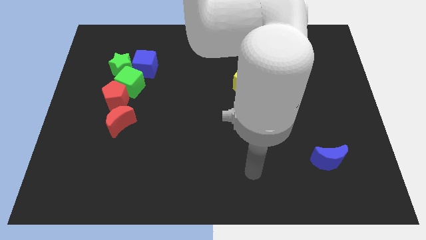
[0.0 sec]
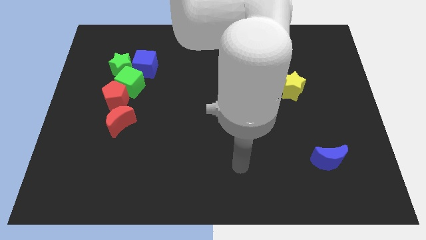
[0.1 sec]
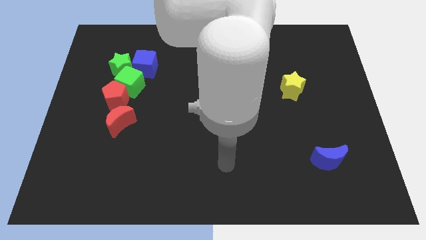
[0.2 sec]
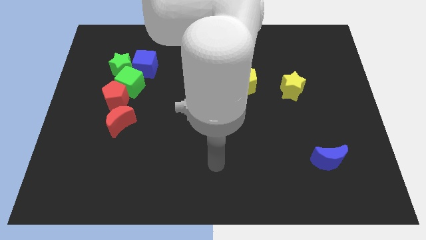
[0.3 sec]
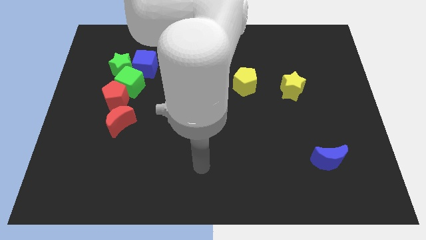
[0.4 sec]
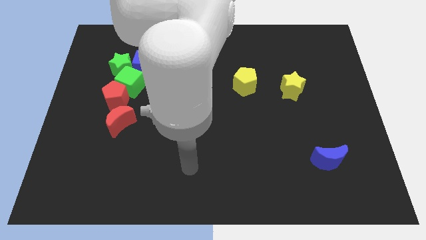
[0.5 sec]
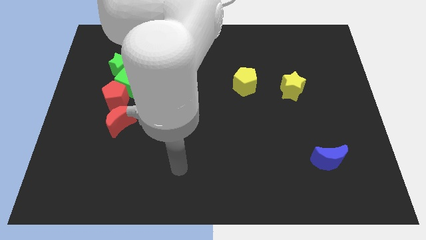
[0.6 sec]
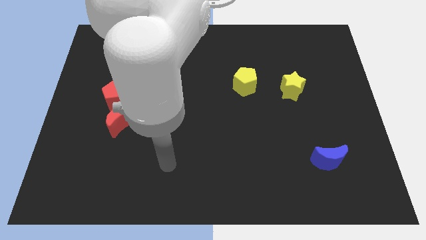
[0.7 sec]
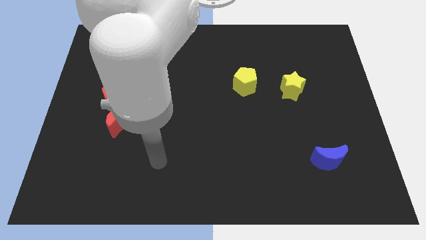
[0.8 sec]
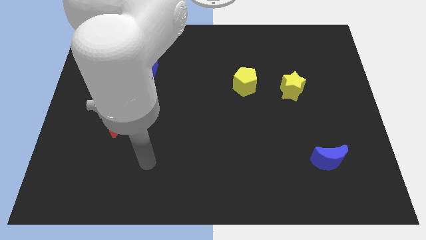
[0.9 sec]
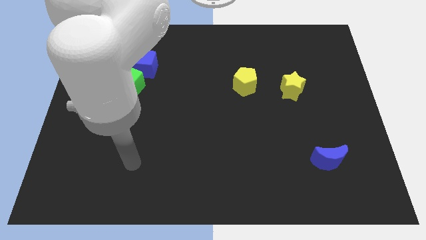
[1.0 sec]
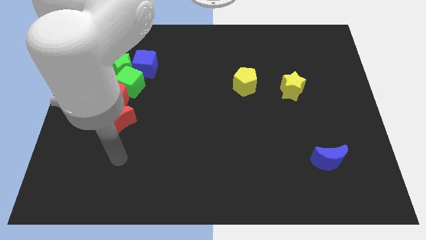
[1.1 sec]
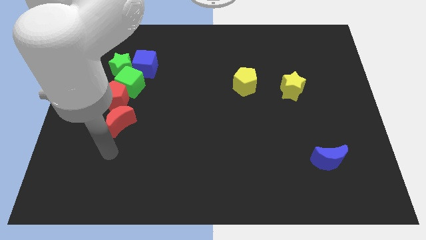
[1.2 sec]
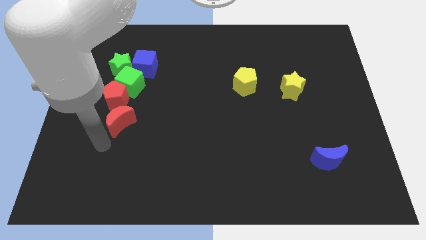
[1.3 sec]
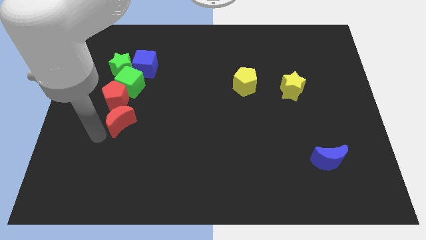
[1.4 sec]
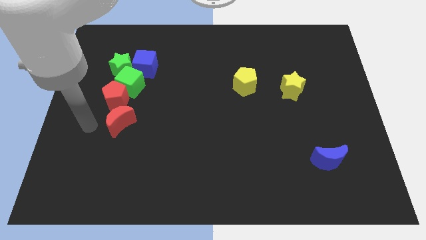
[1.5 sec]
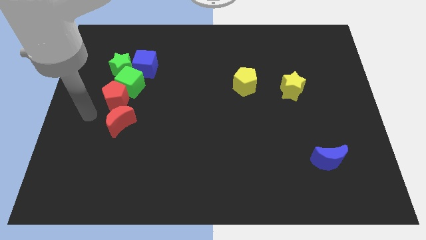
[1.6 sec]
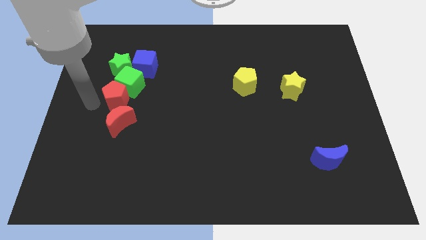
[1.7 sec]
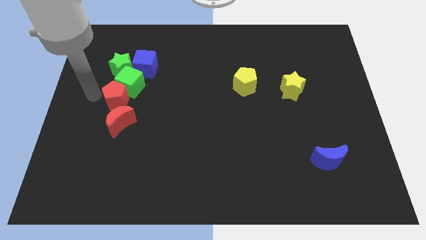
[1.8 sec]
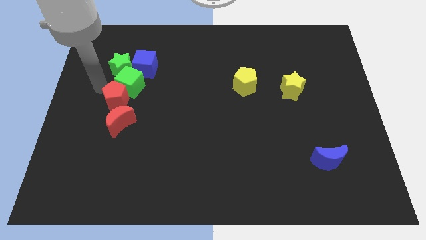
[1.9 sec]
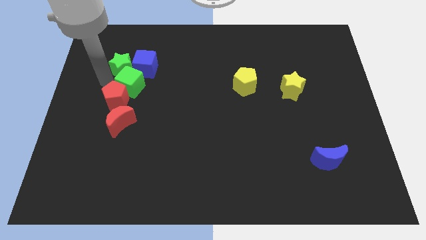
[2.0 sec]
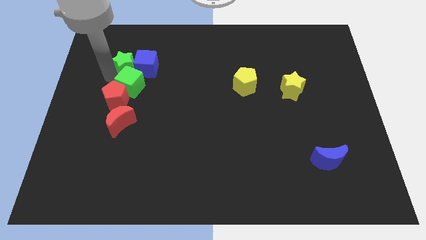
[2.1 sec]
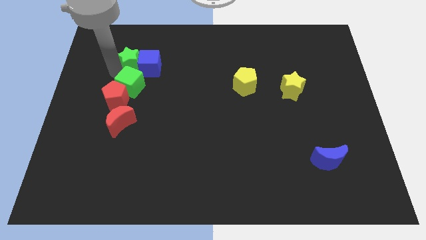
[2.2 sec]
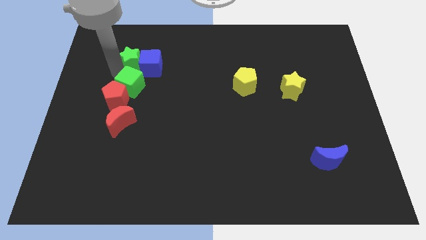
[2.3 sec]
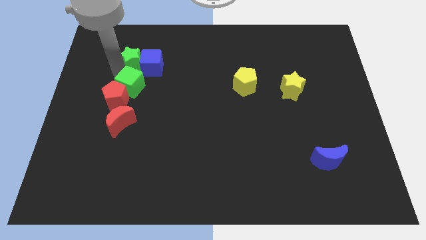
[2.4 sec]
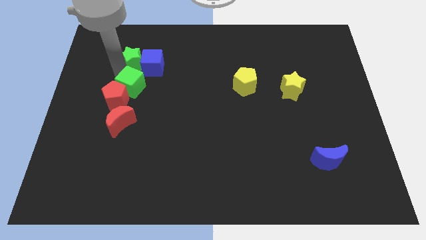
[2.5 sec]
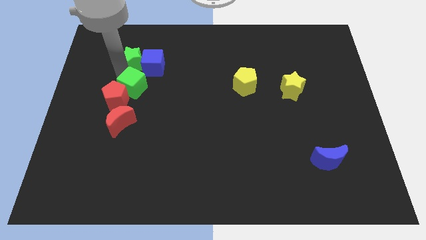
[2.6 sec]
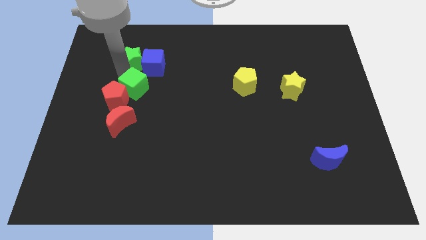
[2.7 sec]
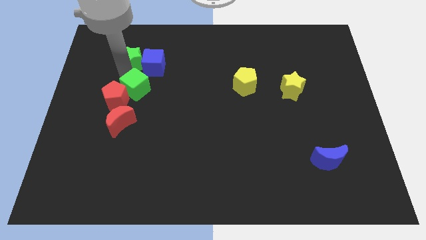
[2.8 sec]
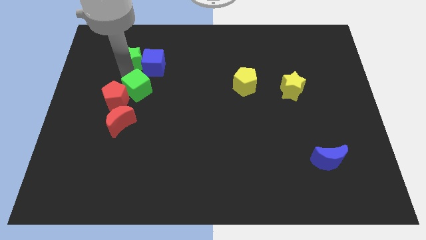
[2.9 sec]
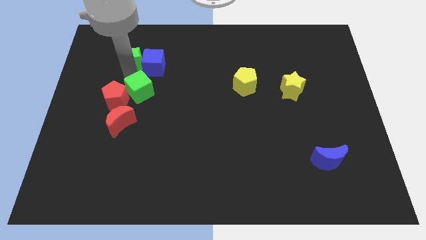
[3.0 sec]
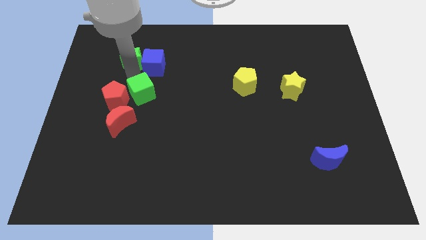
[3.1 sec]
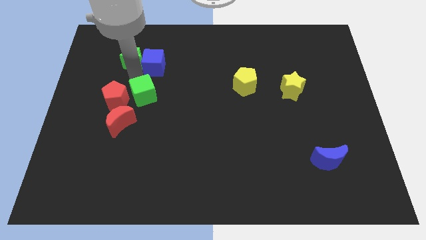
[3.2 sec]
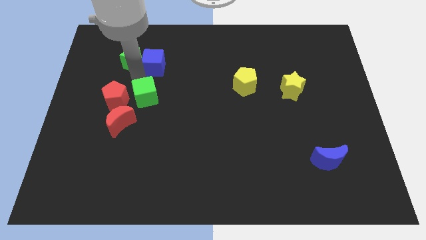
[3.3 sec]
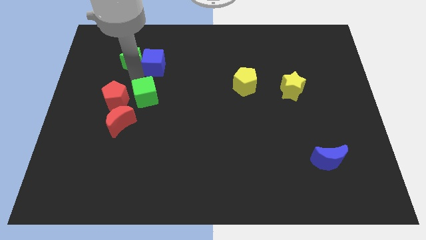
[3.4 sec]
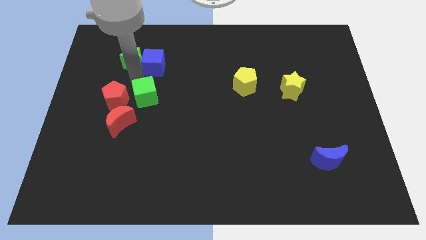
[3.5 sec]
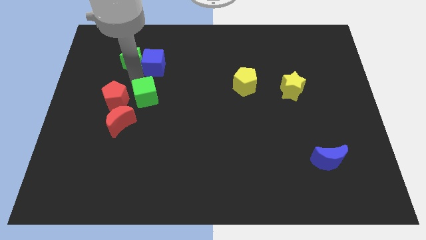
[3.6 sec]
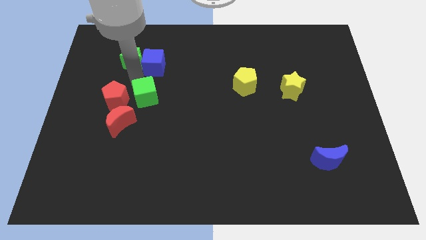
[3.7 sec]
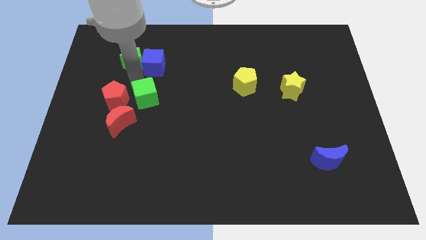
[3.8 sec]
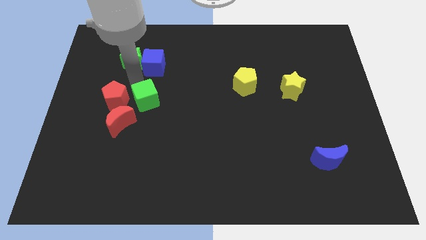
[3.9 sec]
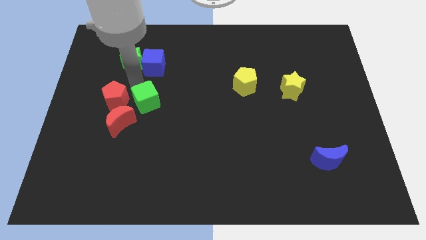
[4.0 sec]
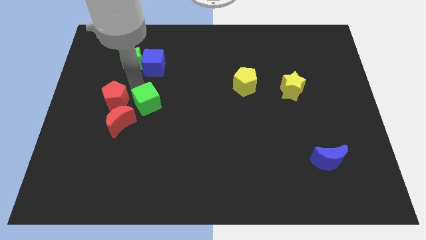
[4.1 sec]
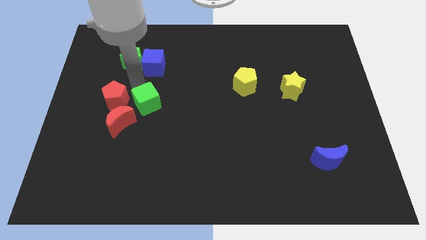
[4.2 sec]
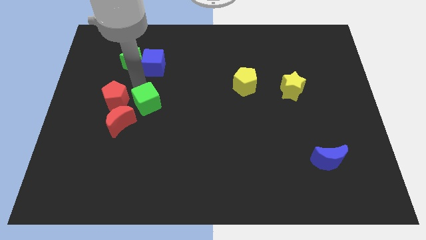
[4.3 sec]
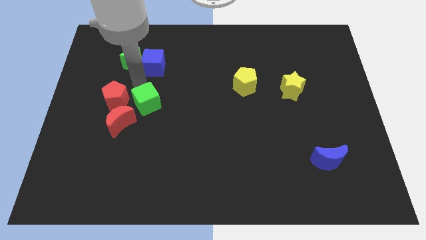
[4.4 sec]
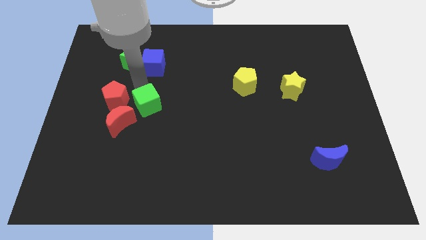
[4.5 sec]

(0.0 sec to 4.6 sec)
separate the green cube from the red pentagon, green star, and blue cube

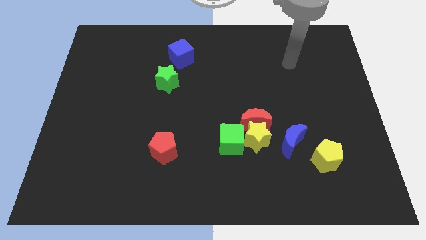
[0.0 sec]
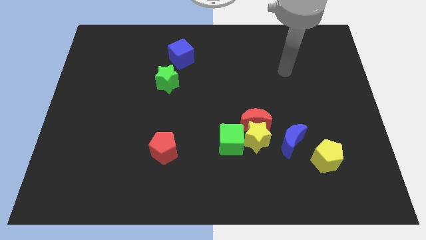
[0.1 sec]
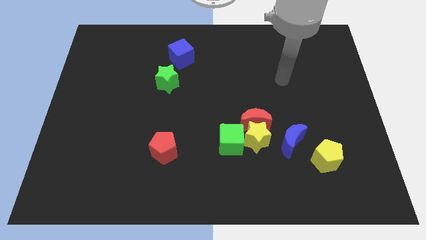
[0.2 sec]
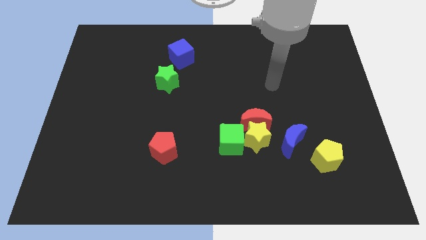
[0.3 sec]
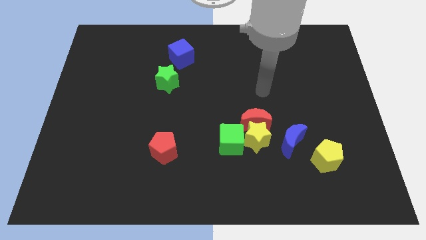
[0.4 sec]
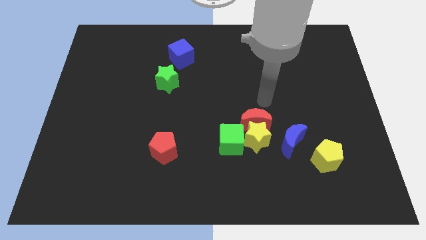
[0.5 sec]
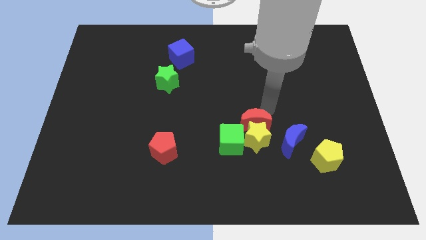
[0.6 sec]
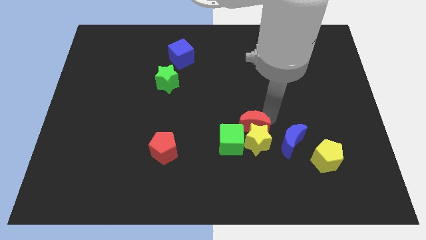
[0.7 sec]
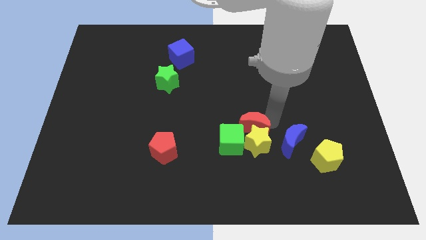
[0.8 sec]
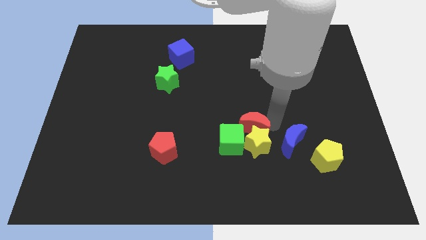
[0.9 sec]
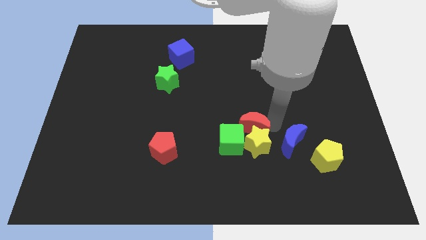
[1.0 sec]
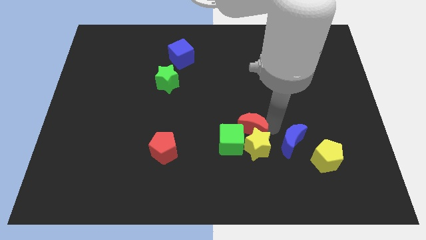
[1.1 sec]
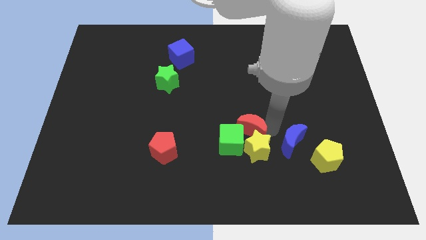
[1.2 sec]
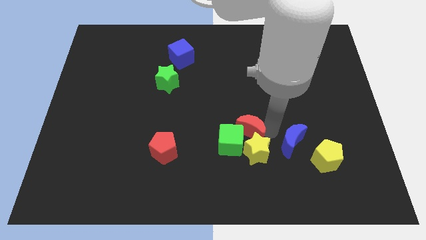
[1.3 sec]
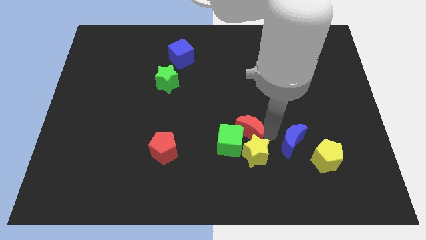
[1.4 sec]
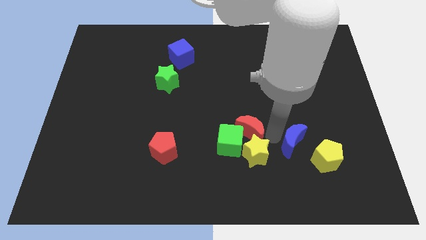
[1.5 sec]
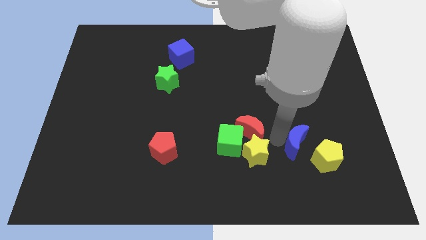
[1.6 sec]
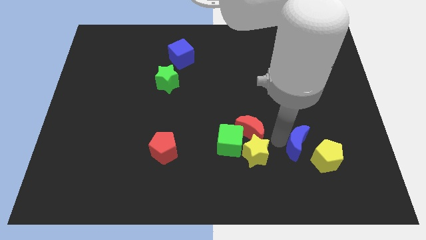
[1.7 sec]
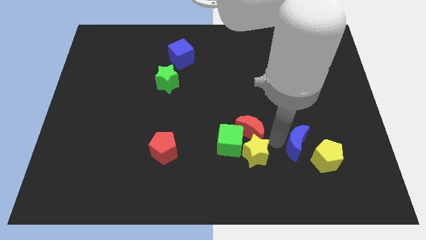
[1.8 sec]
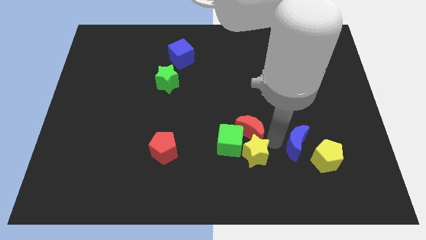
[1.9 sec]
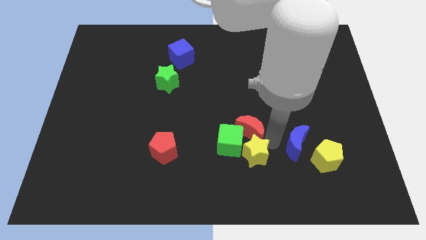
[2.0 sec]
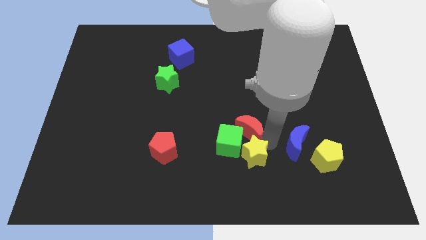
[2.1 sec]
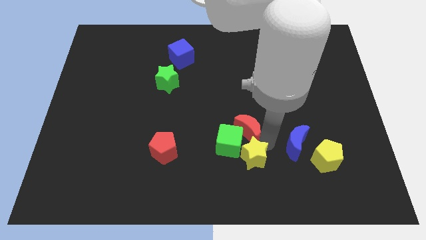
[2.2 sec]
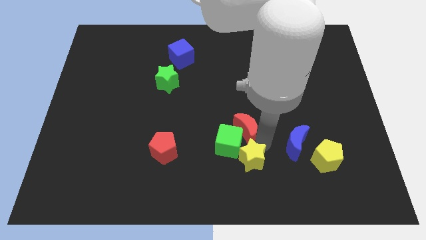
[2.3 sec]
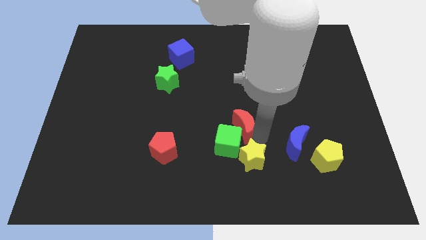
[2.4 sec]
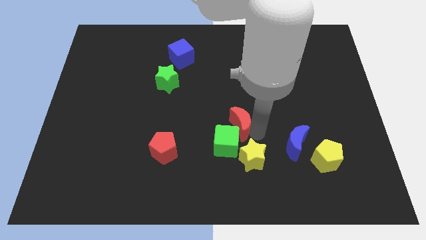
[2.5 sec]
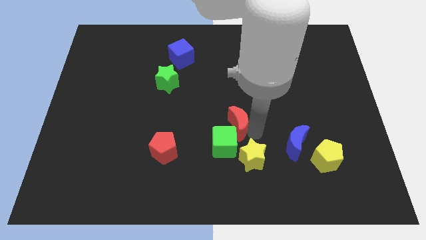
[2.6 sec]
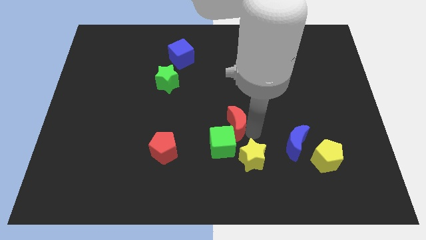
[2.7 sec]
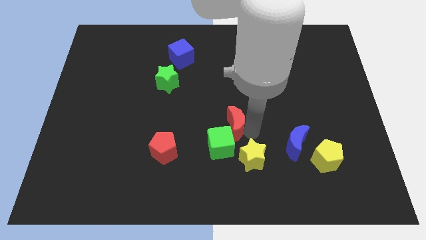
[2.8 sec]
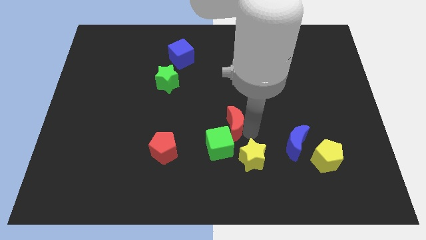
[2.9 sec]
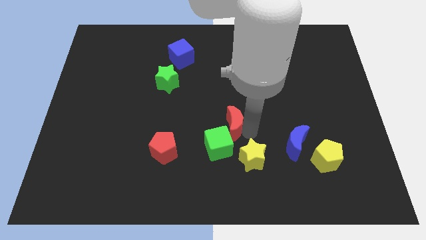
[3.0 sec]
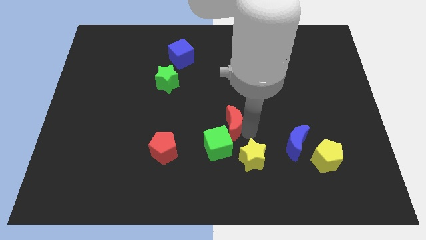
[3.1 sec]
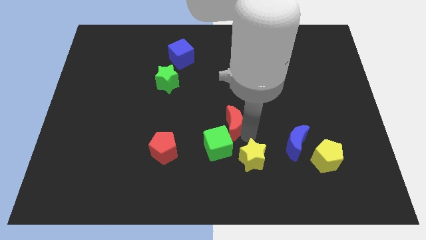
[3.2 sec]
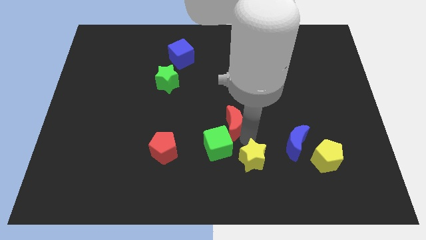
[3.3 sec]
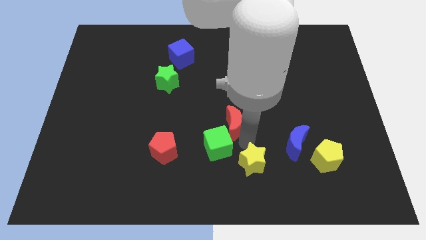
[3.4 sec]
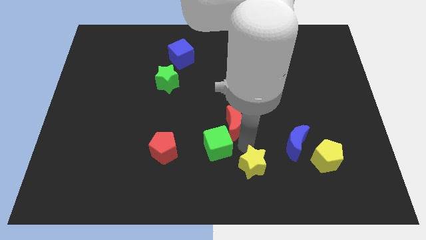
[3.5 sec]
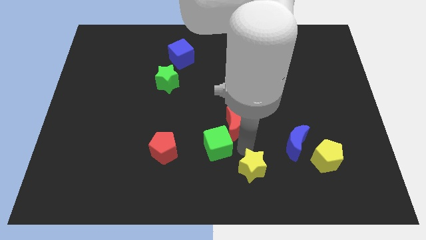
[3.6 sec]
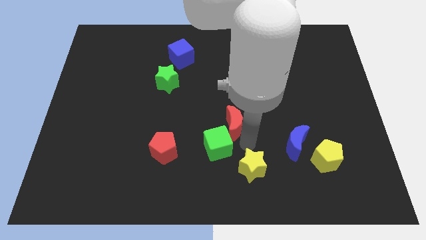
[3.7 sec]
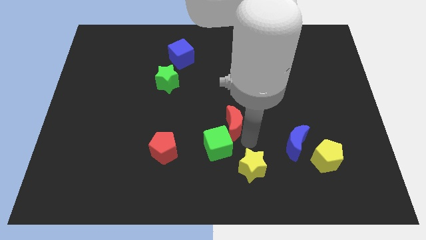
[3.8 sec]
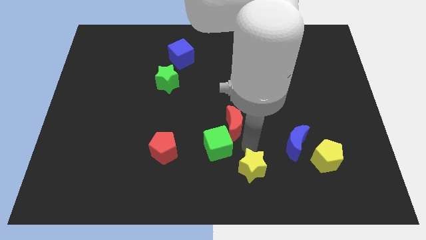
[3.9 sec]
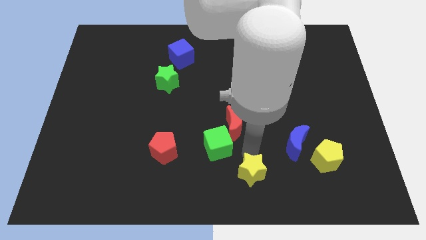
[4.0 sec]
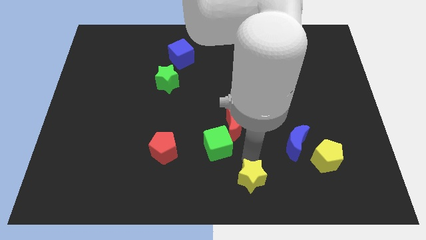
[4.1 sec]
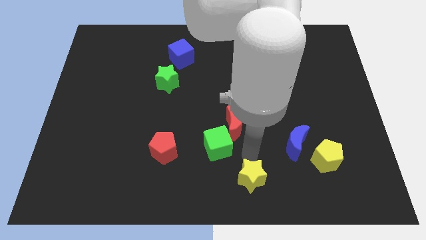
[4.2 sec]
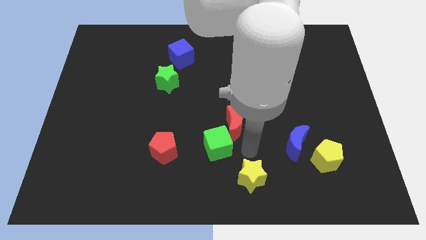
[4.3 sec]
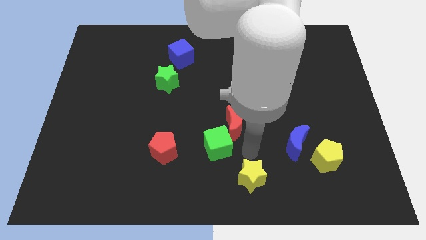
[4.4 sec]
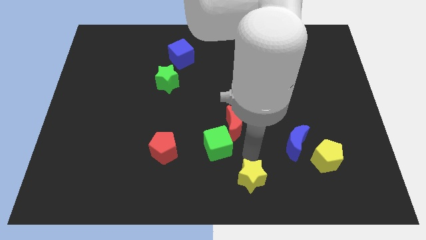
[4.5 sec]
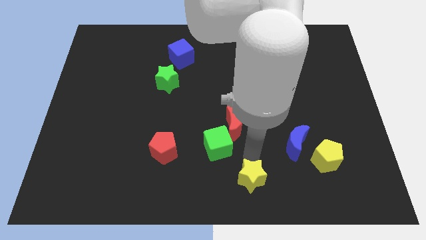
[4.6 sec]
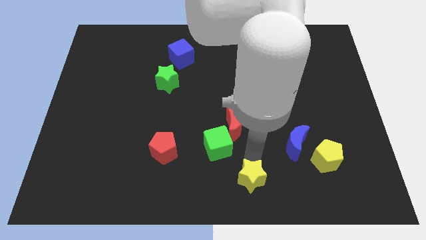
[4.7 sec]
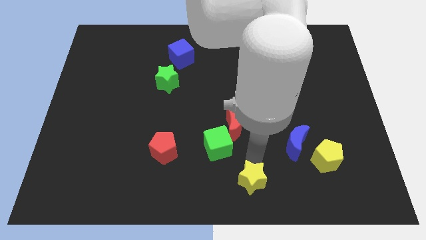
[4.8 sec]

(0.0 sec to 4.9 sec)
pull the yellow star apart from the red moon, green cube, and blue moon
